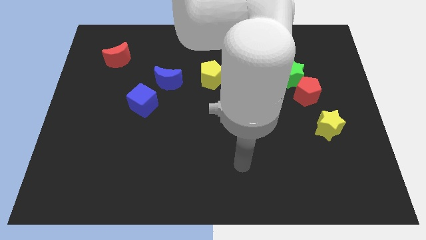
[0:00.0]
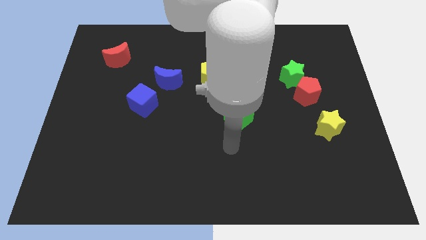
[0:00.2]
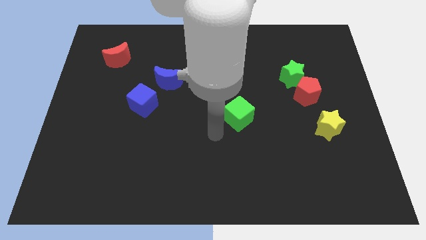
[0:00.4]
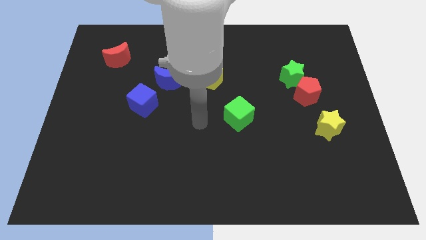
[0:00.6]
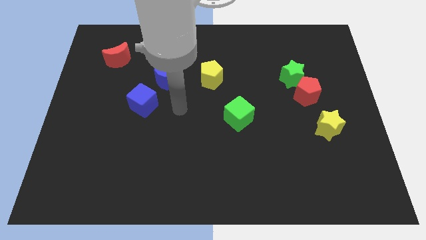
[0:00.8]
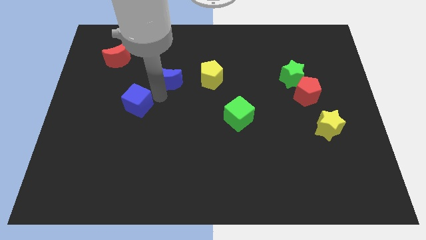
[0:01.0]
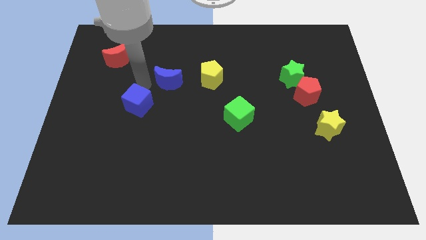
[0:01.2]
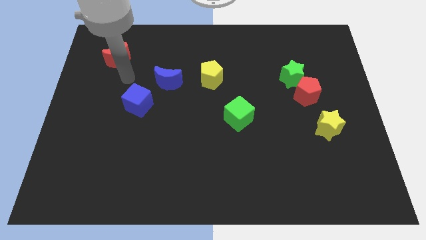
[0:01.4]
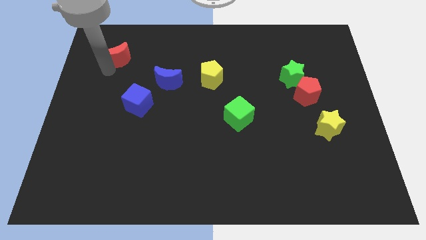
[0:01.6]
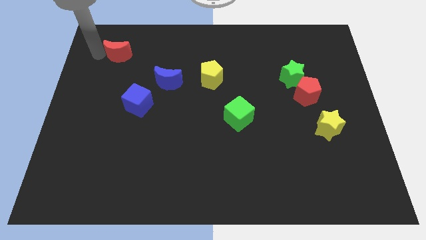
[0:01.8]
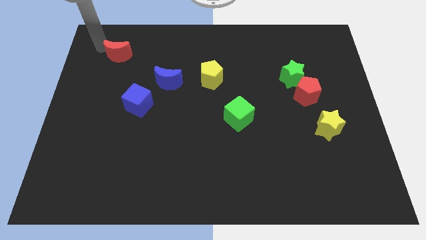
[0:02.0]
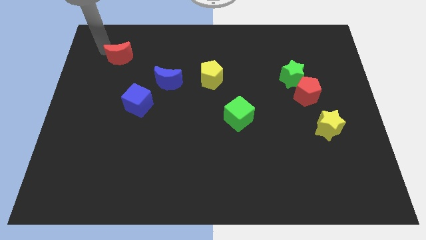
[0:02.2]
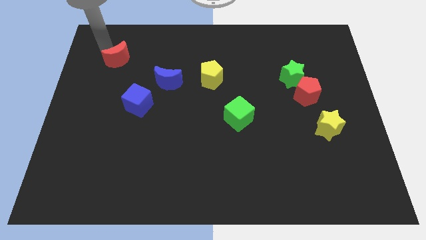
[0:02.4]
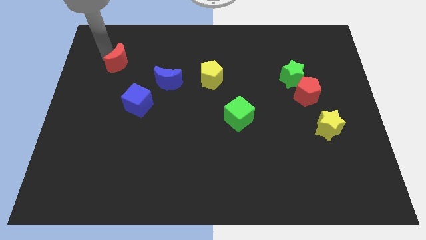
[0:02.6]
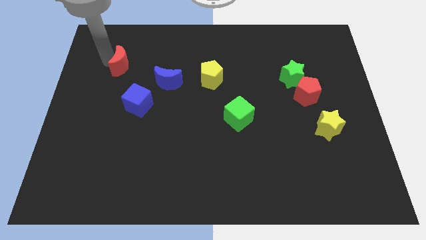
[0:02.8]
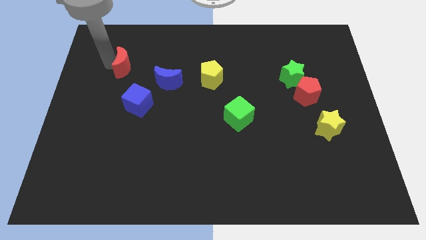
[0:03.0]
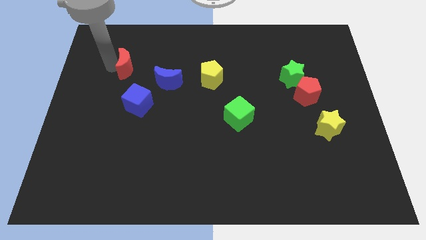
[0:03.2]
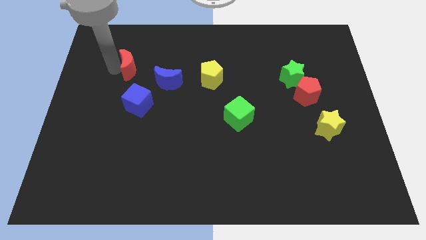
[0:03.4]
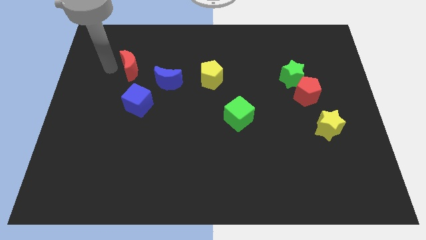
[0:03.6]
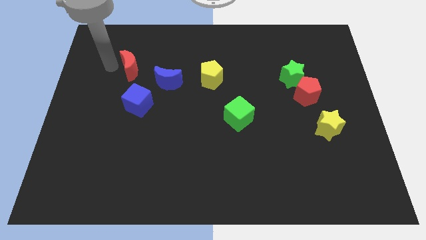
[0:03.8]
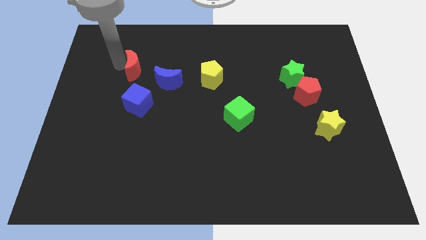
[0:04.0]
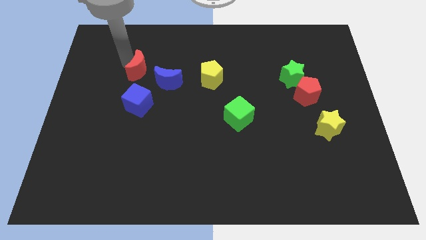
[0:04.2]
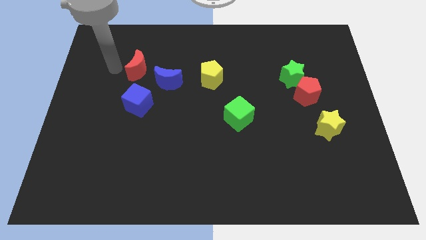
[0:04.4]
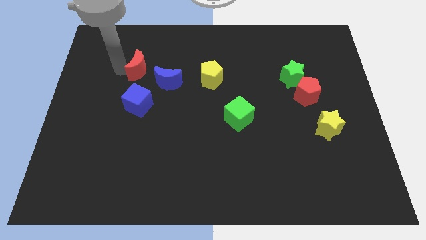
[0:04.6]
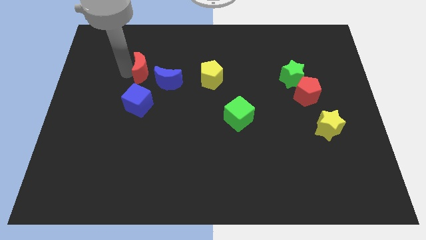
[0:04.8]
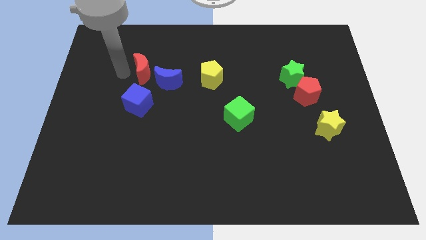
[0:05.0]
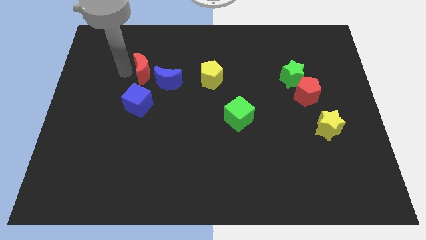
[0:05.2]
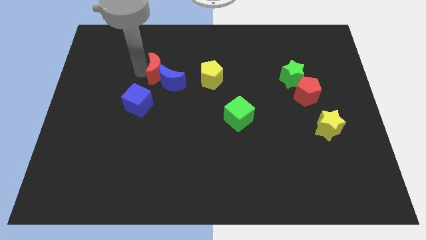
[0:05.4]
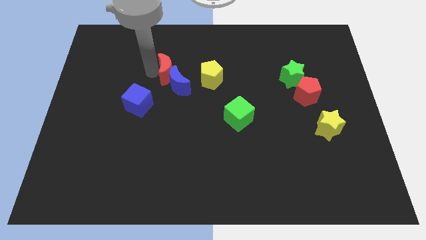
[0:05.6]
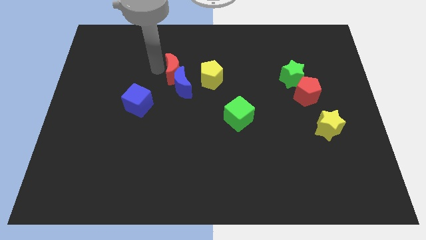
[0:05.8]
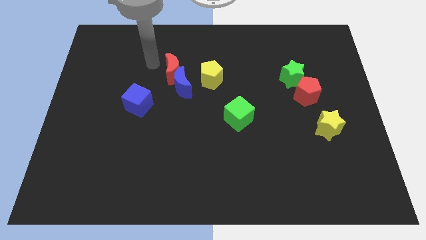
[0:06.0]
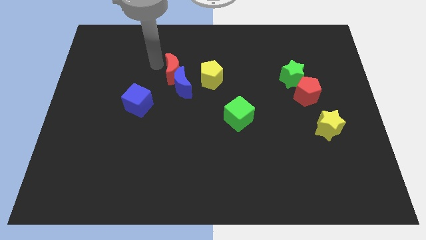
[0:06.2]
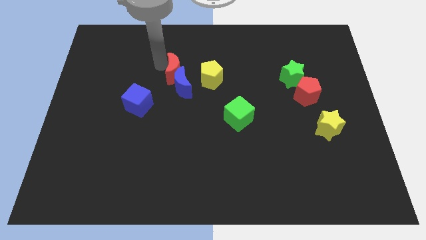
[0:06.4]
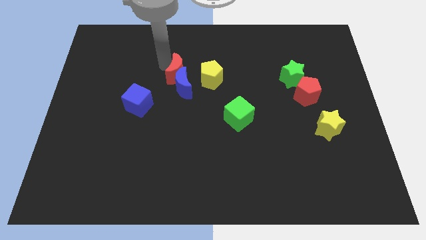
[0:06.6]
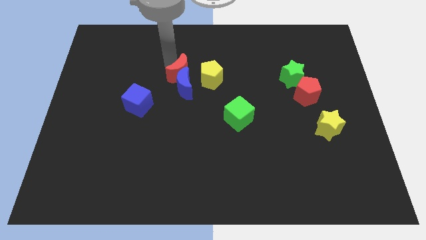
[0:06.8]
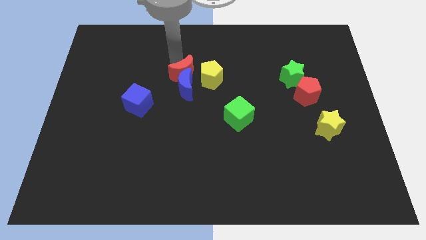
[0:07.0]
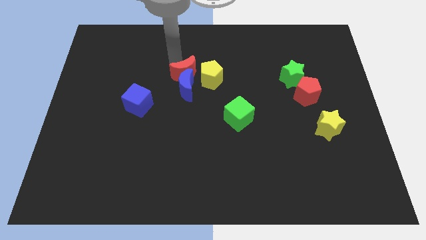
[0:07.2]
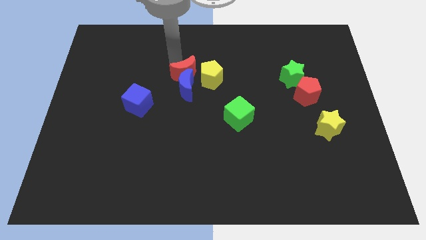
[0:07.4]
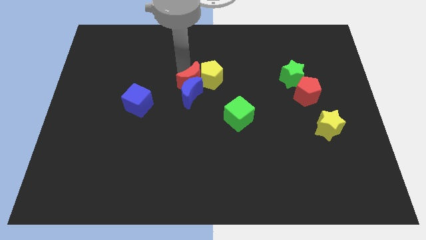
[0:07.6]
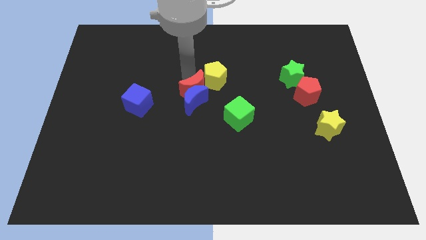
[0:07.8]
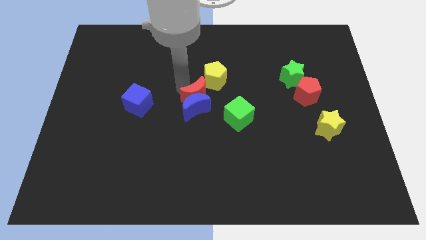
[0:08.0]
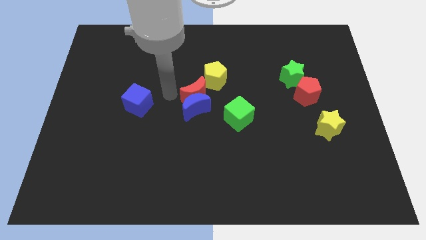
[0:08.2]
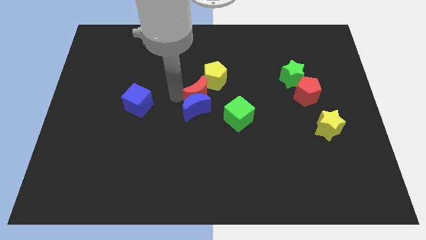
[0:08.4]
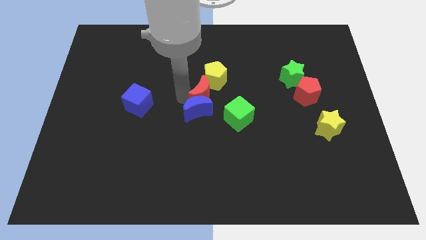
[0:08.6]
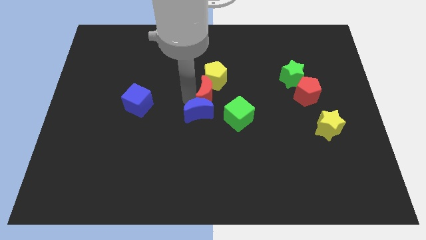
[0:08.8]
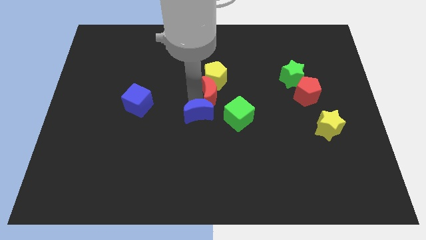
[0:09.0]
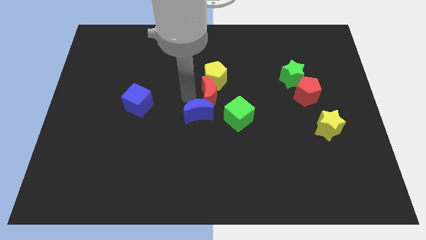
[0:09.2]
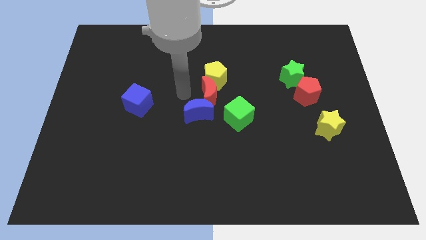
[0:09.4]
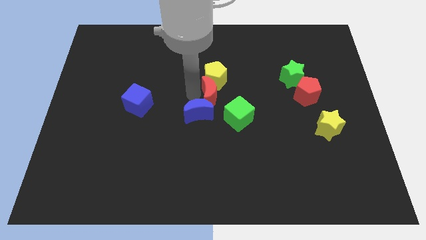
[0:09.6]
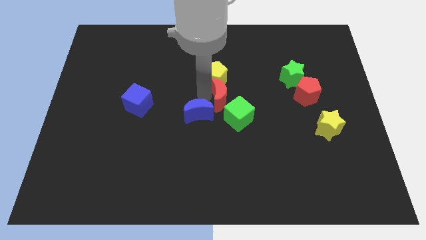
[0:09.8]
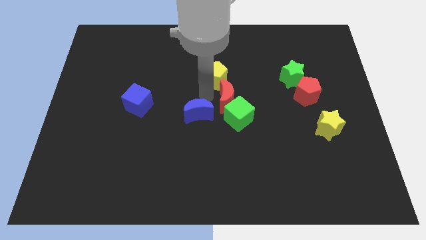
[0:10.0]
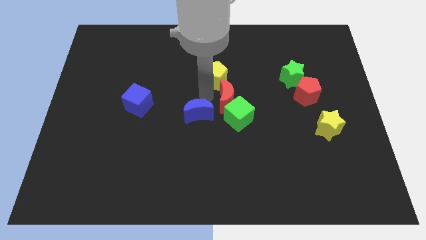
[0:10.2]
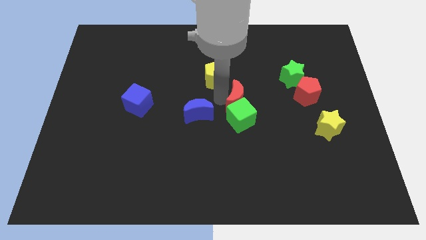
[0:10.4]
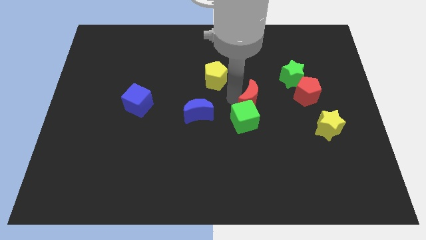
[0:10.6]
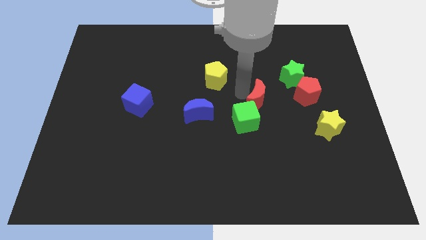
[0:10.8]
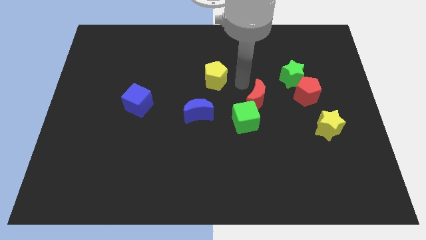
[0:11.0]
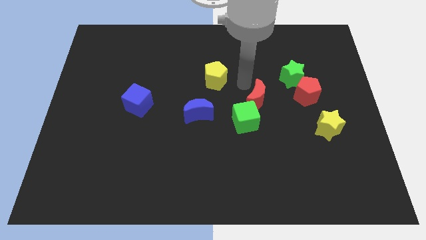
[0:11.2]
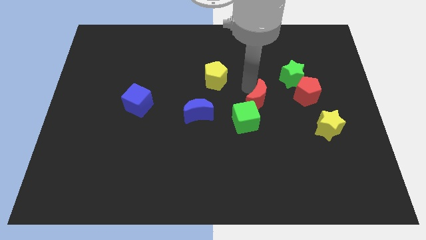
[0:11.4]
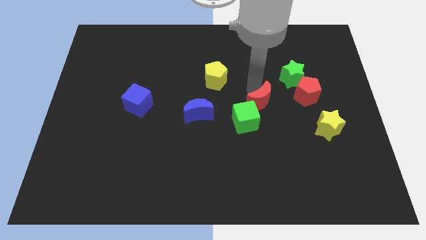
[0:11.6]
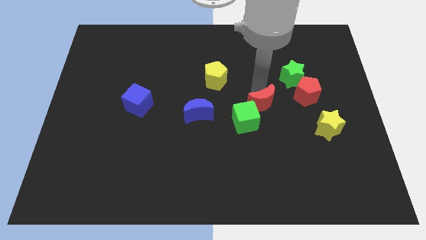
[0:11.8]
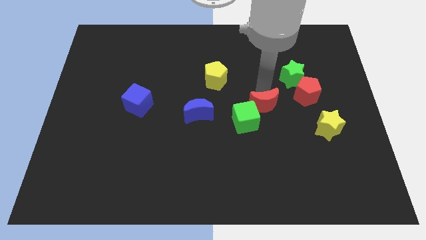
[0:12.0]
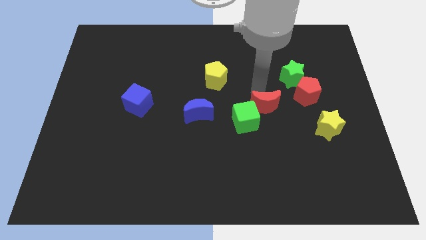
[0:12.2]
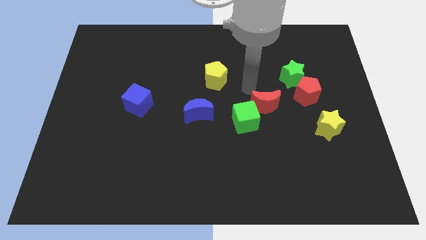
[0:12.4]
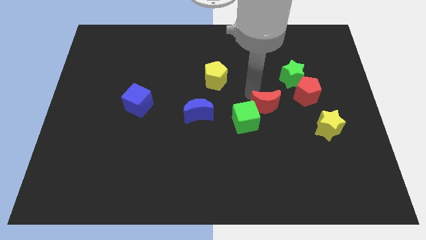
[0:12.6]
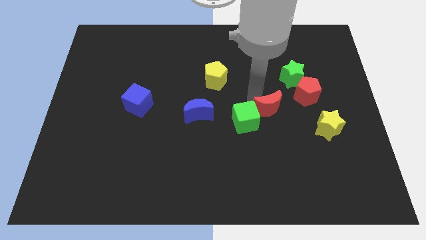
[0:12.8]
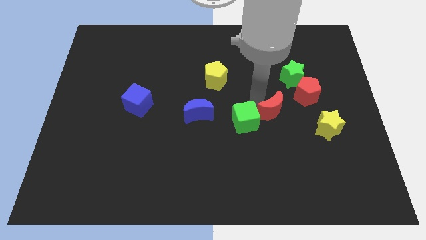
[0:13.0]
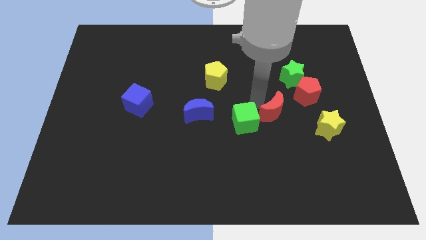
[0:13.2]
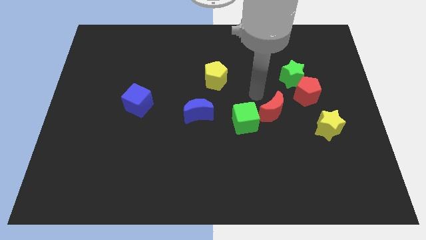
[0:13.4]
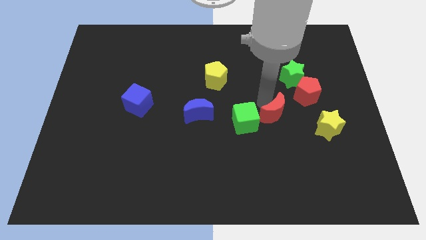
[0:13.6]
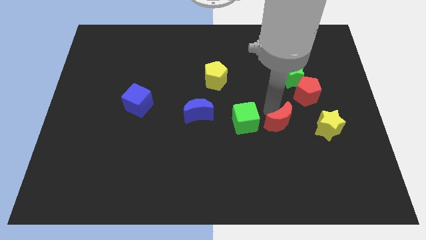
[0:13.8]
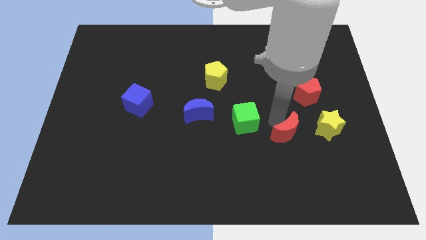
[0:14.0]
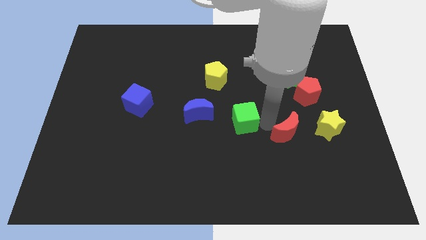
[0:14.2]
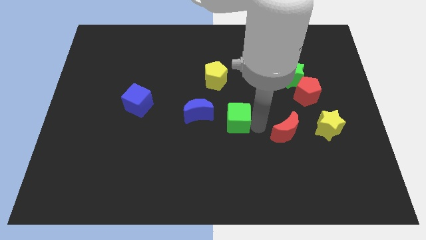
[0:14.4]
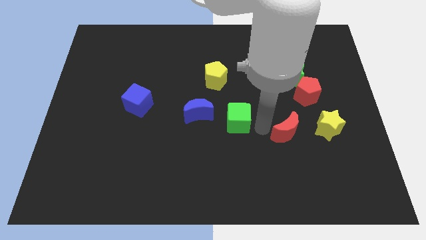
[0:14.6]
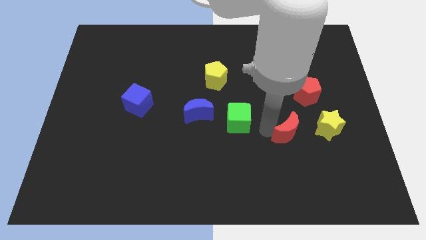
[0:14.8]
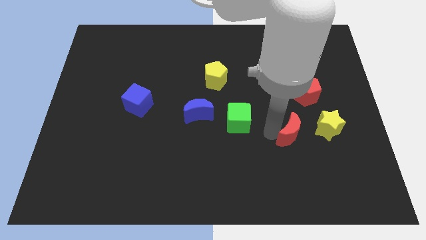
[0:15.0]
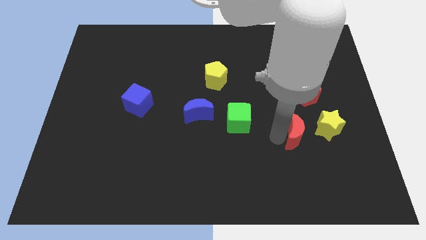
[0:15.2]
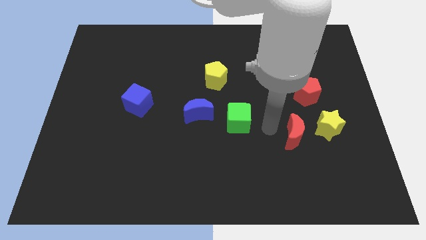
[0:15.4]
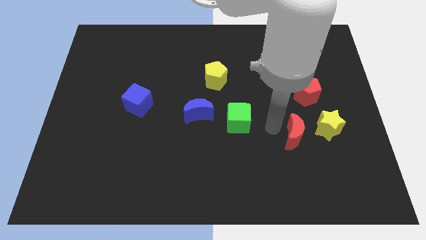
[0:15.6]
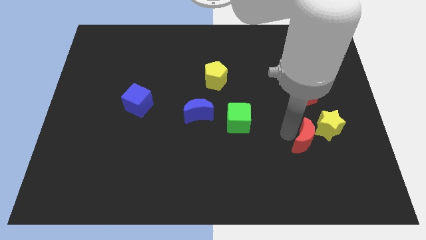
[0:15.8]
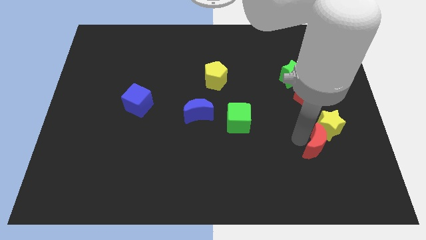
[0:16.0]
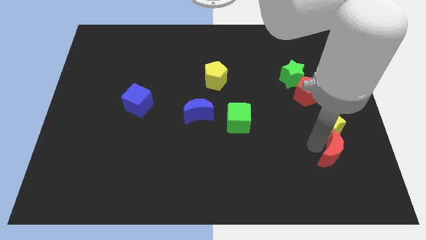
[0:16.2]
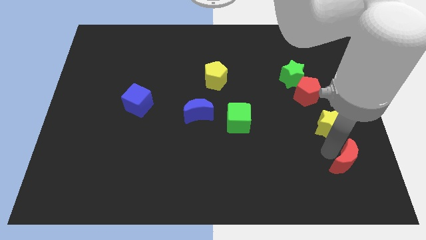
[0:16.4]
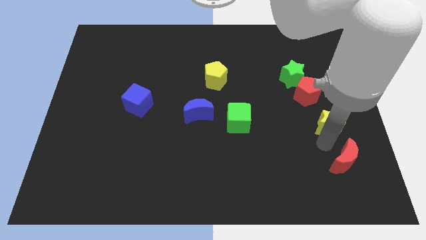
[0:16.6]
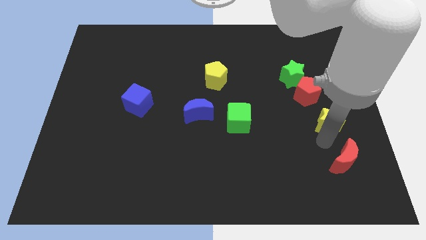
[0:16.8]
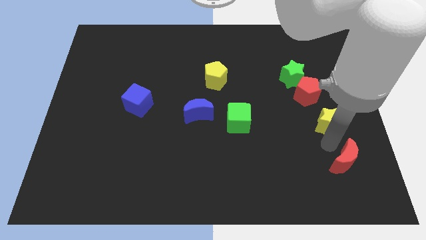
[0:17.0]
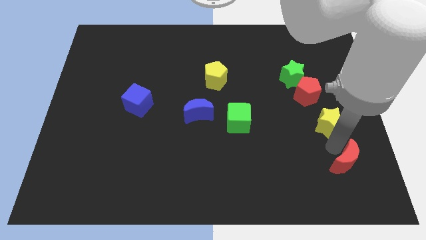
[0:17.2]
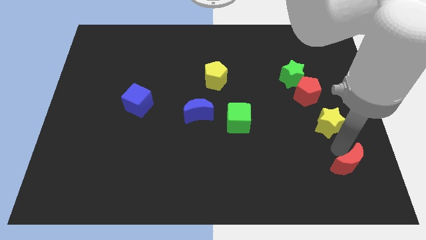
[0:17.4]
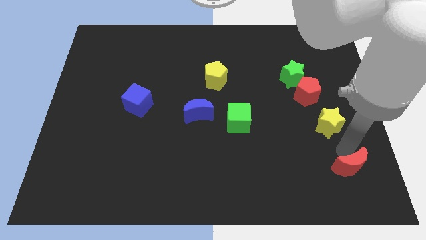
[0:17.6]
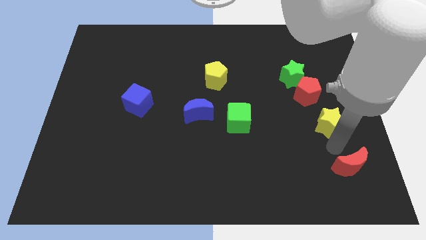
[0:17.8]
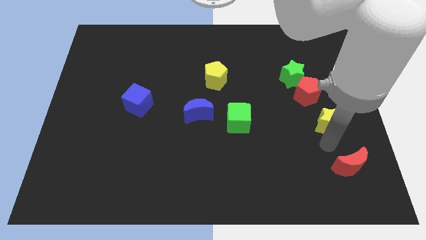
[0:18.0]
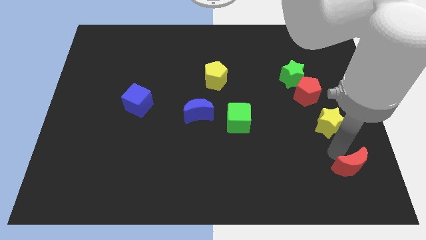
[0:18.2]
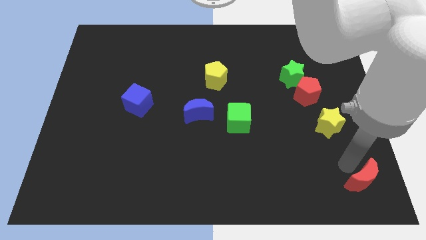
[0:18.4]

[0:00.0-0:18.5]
slide the red moon to the bottom right corner
